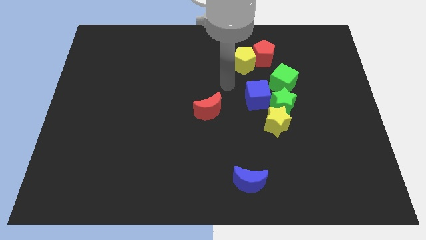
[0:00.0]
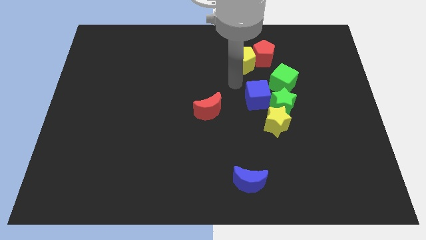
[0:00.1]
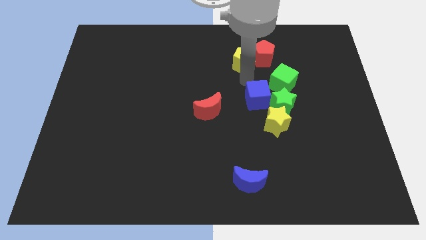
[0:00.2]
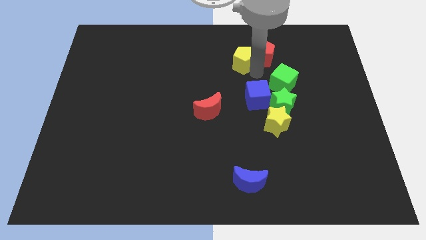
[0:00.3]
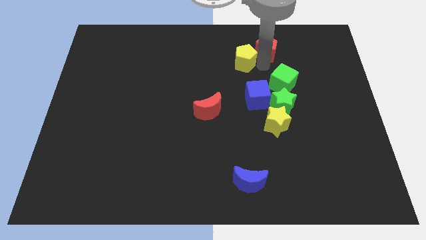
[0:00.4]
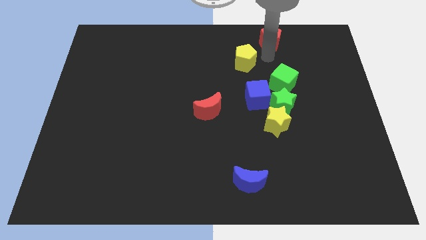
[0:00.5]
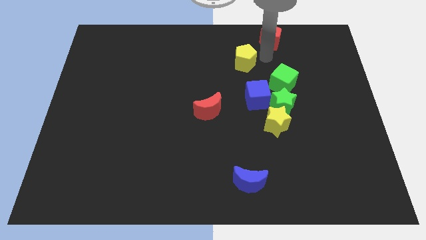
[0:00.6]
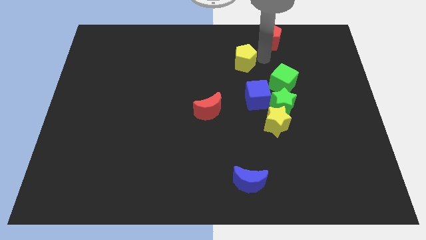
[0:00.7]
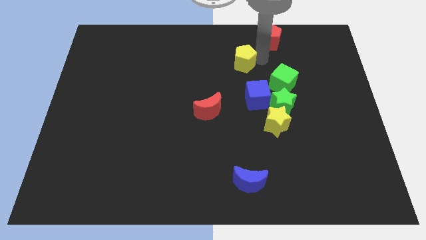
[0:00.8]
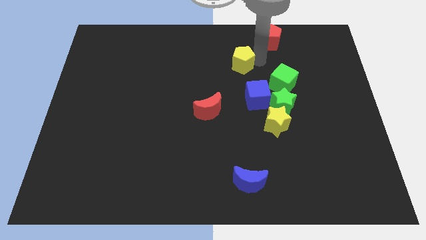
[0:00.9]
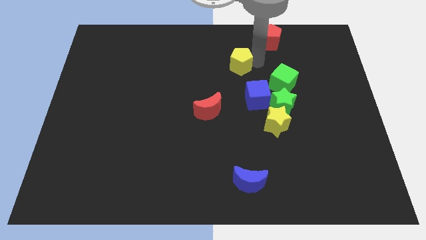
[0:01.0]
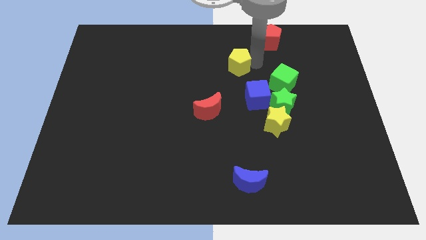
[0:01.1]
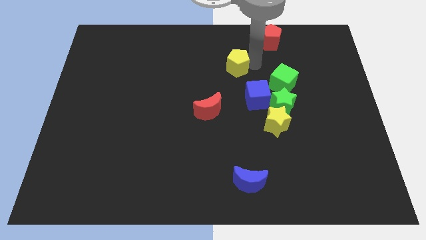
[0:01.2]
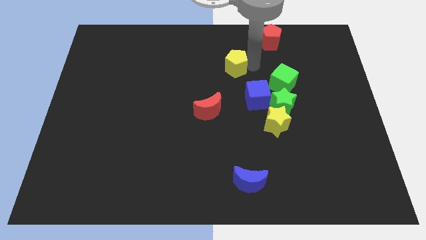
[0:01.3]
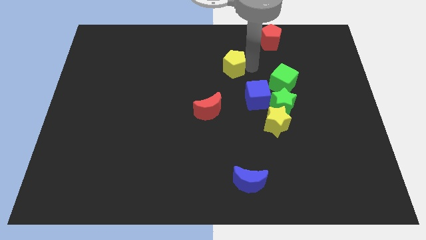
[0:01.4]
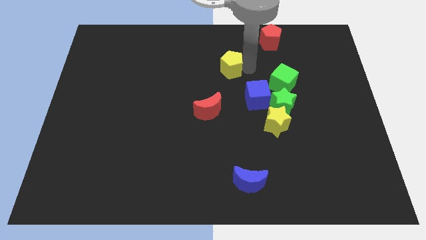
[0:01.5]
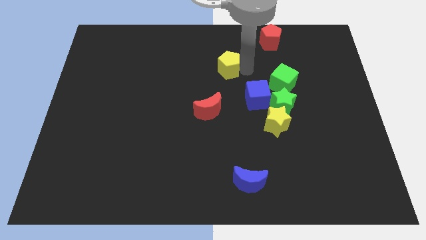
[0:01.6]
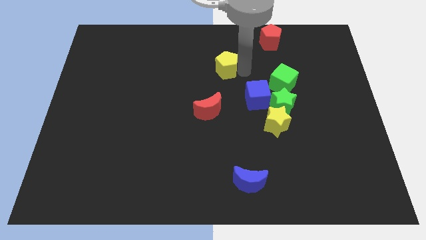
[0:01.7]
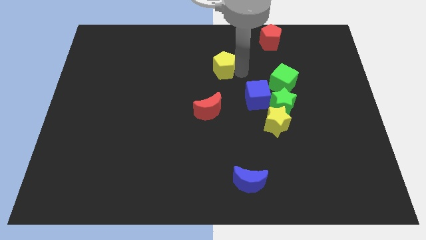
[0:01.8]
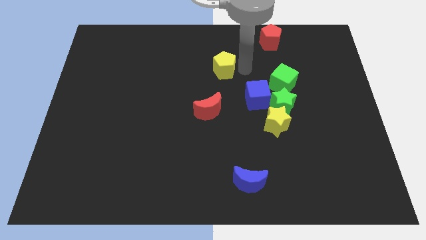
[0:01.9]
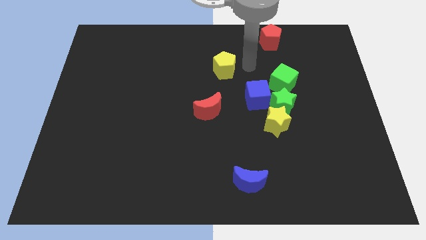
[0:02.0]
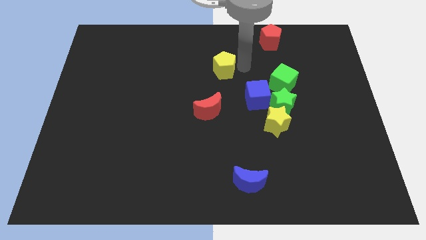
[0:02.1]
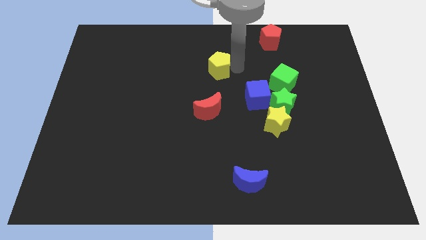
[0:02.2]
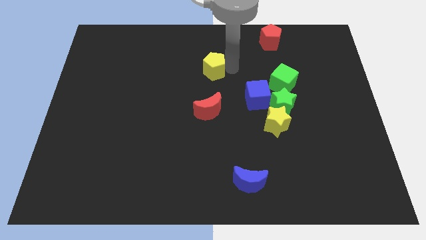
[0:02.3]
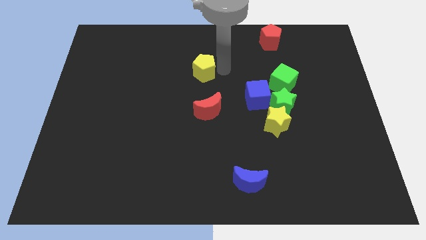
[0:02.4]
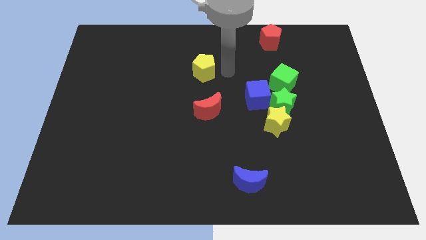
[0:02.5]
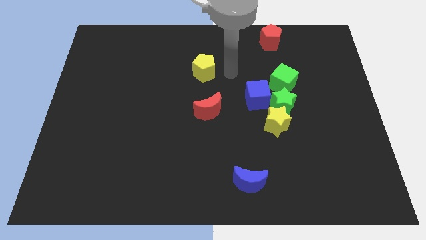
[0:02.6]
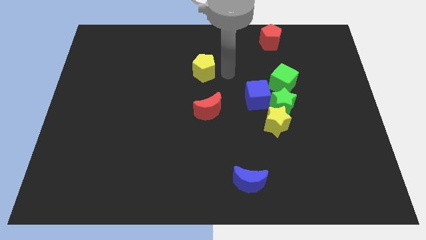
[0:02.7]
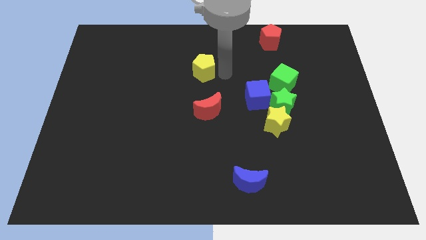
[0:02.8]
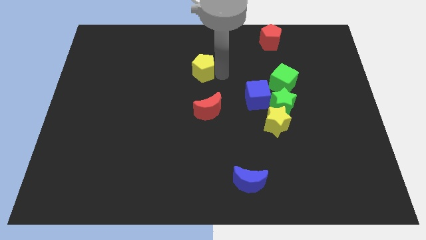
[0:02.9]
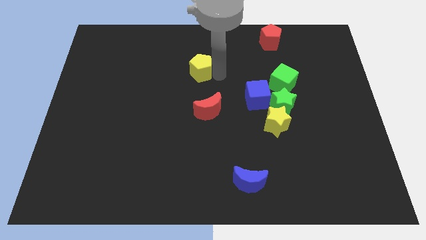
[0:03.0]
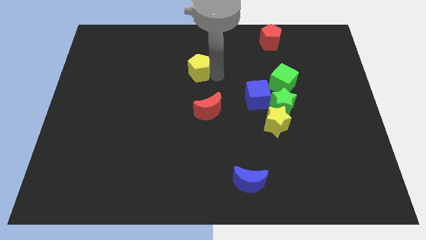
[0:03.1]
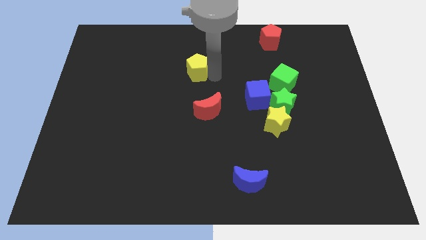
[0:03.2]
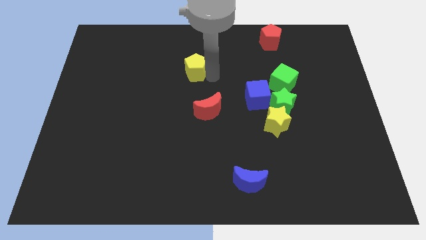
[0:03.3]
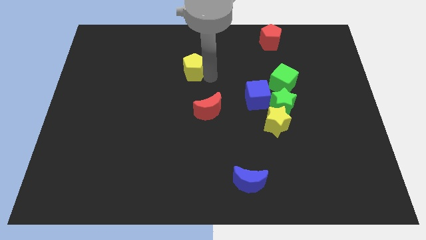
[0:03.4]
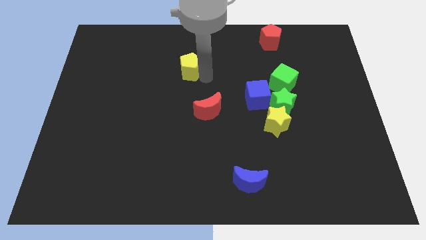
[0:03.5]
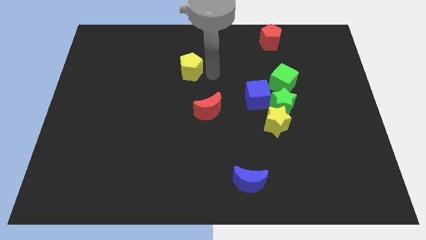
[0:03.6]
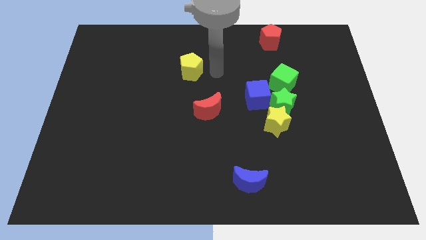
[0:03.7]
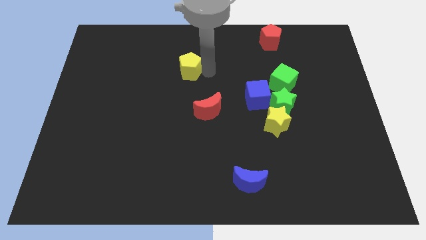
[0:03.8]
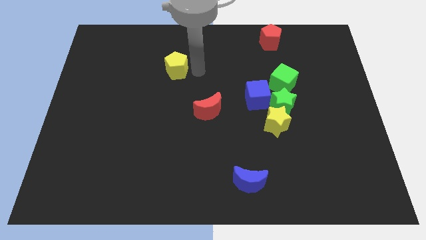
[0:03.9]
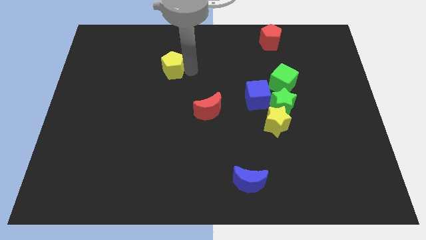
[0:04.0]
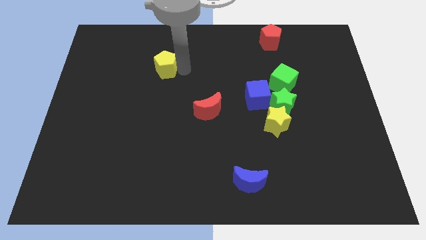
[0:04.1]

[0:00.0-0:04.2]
push the yellow pentagon to the left

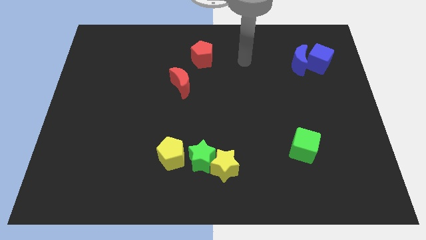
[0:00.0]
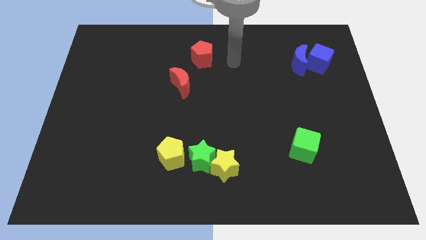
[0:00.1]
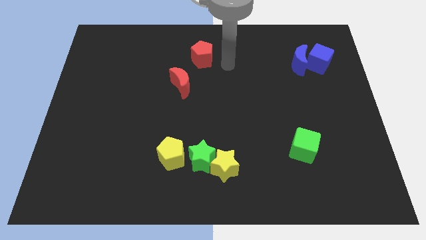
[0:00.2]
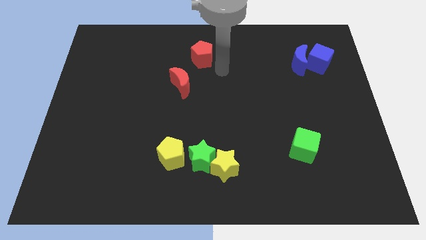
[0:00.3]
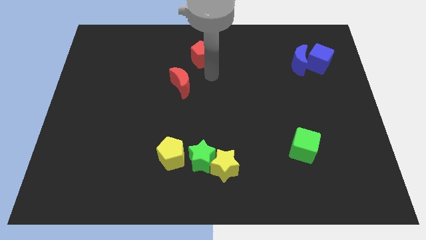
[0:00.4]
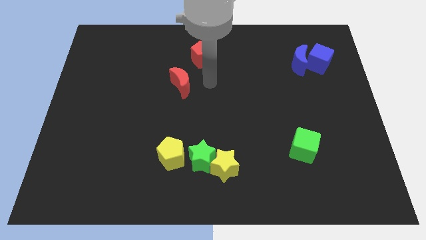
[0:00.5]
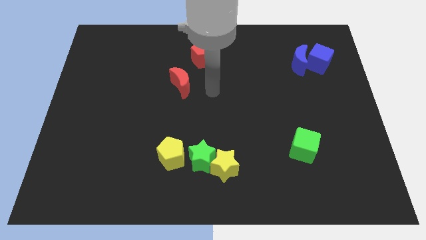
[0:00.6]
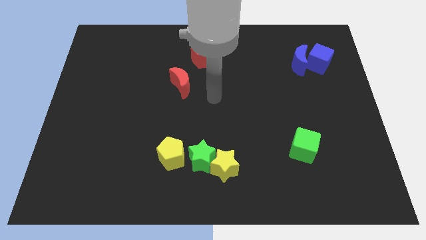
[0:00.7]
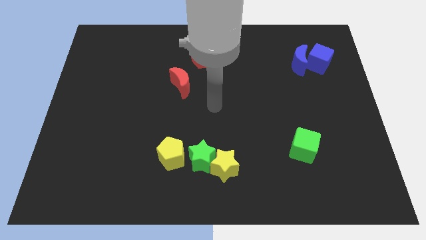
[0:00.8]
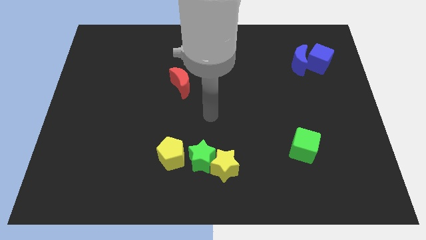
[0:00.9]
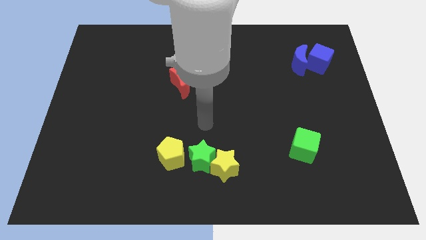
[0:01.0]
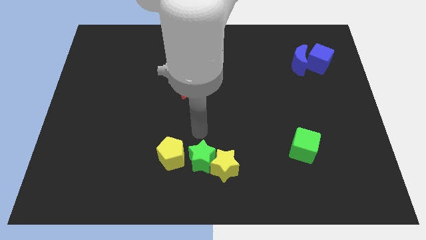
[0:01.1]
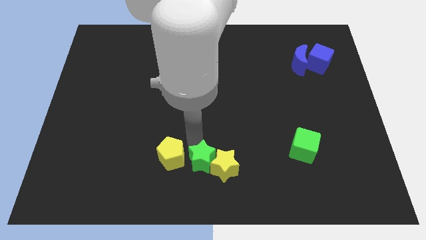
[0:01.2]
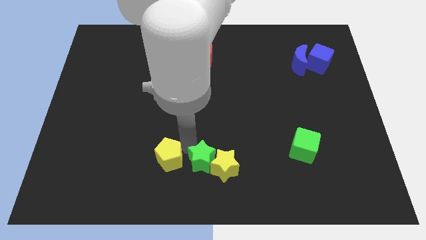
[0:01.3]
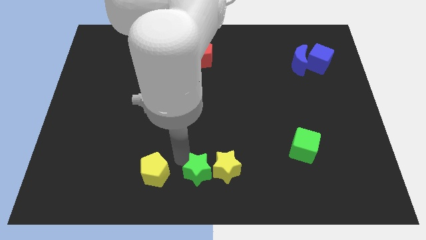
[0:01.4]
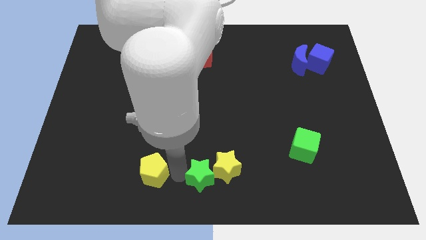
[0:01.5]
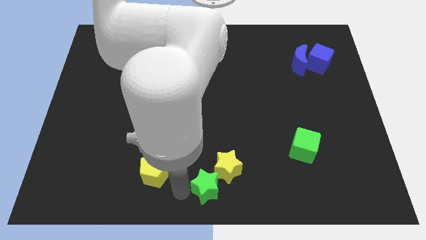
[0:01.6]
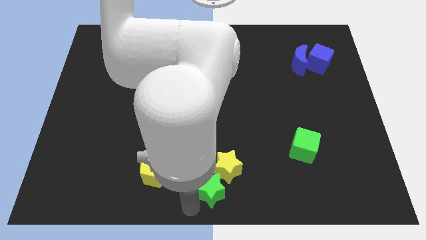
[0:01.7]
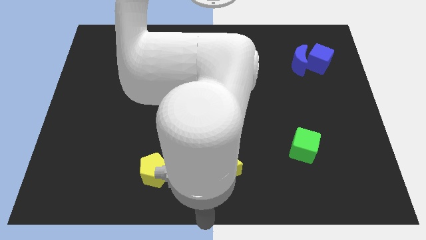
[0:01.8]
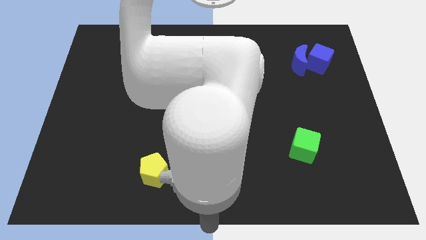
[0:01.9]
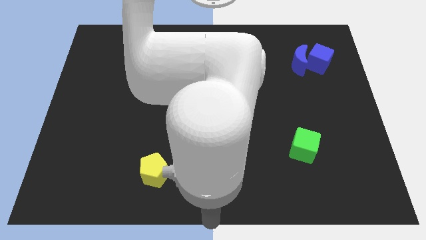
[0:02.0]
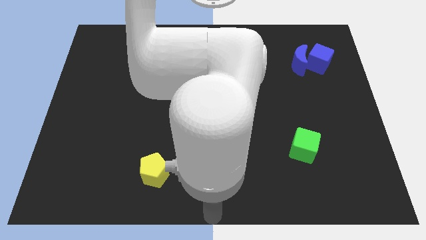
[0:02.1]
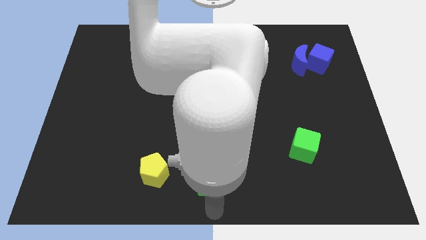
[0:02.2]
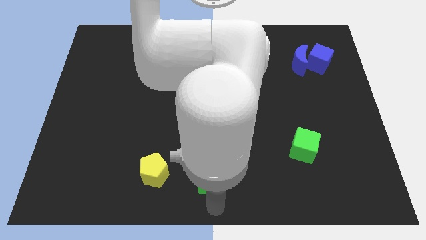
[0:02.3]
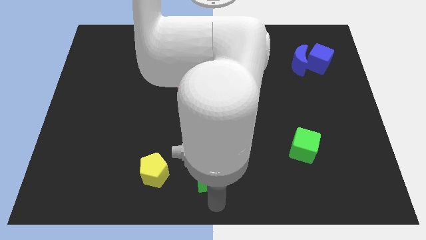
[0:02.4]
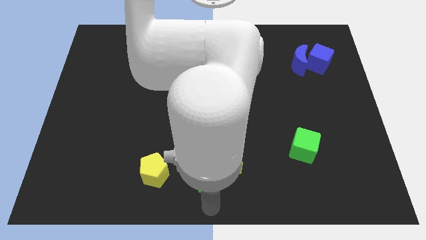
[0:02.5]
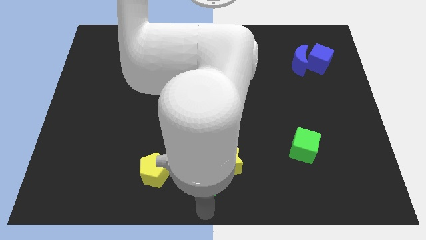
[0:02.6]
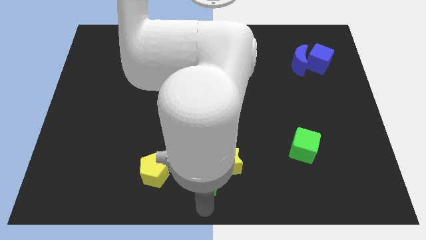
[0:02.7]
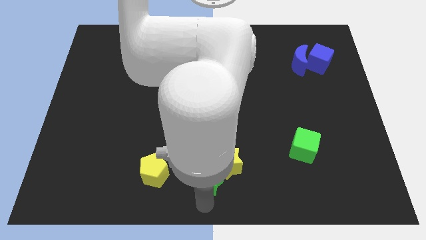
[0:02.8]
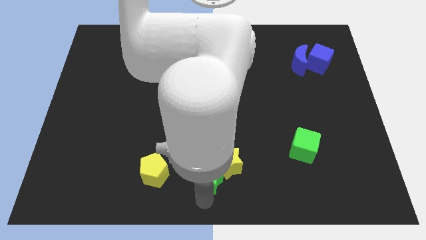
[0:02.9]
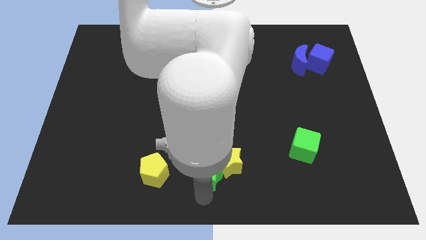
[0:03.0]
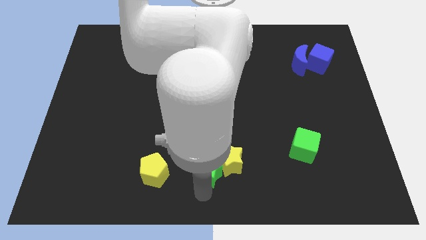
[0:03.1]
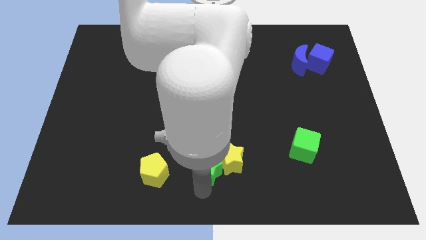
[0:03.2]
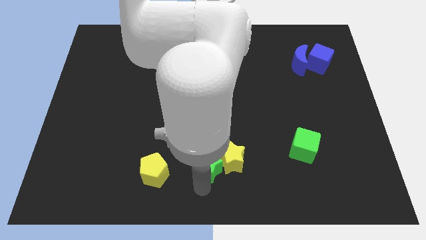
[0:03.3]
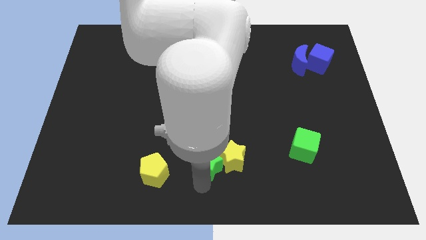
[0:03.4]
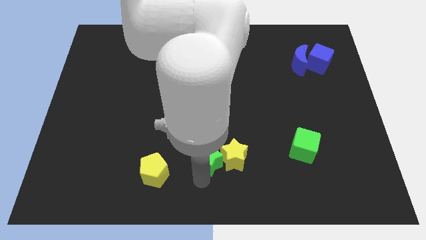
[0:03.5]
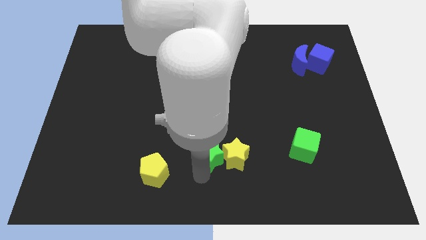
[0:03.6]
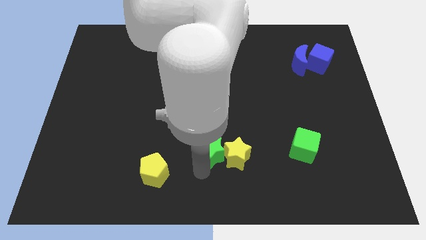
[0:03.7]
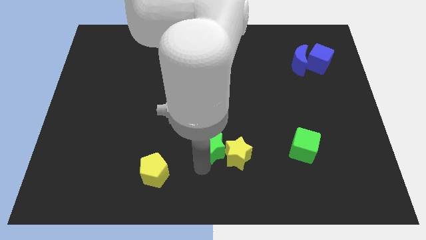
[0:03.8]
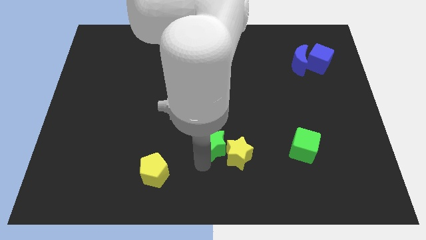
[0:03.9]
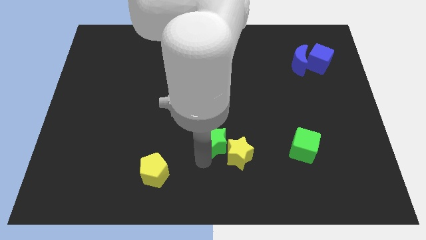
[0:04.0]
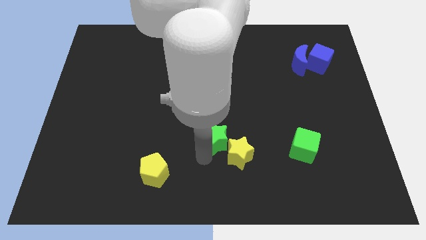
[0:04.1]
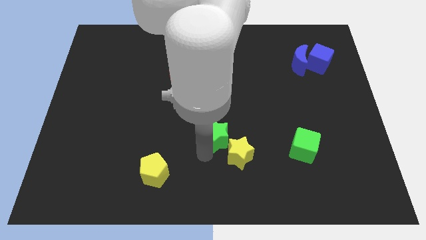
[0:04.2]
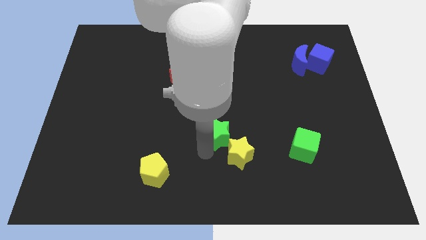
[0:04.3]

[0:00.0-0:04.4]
move the green star a little upwards and to the right
